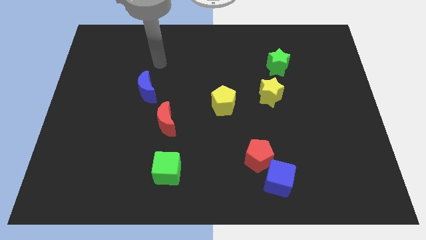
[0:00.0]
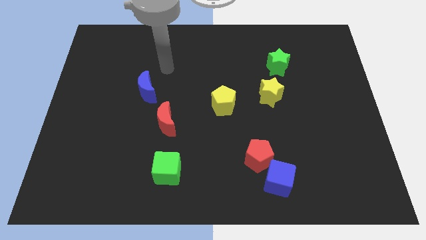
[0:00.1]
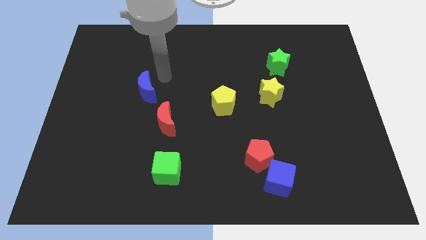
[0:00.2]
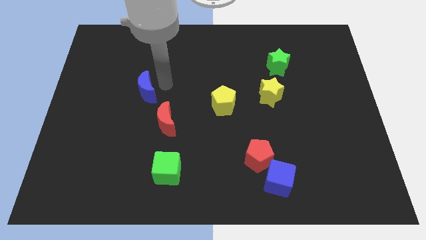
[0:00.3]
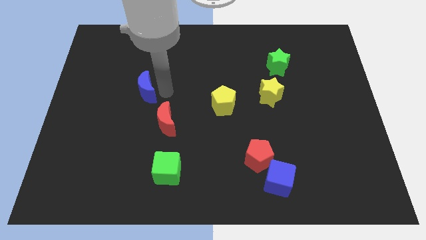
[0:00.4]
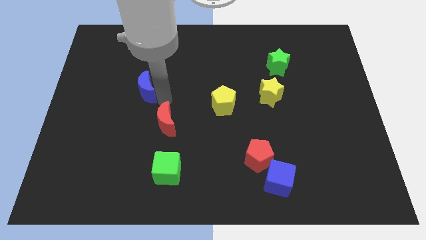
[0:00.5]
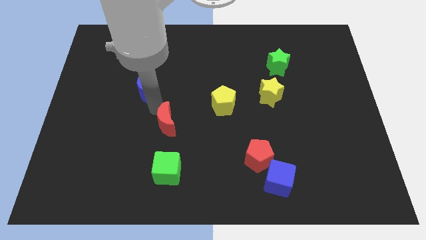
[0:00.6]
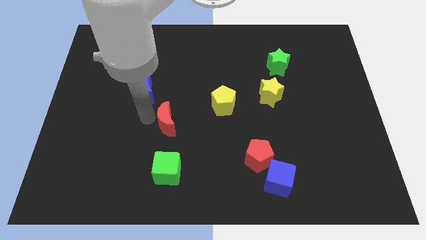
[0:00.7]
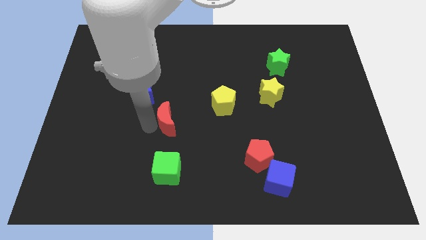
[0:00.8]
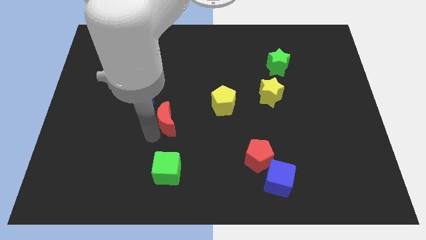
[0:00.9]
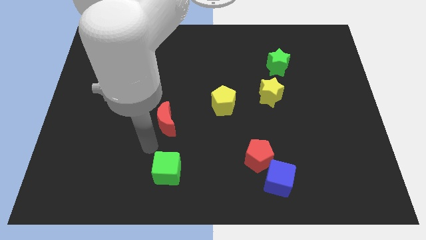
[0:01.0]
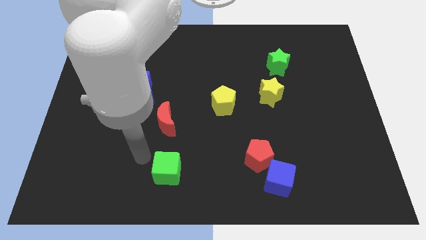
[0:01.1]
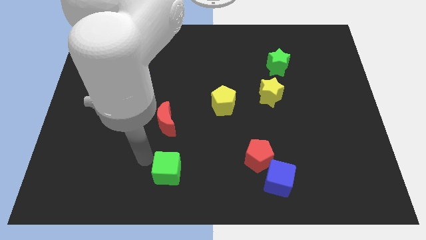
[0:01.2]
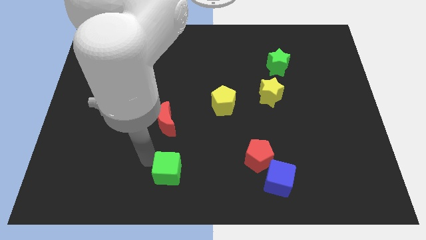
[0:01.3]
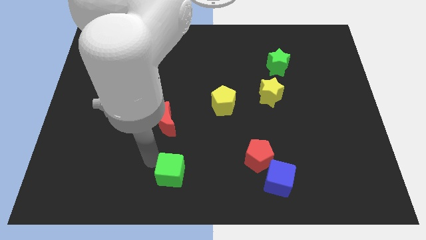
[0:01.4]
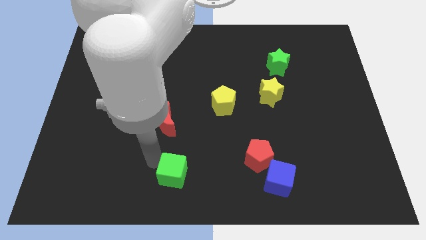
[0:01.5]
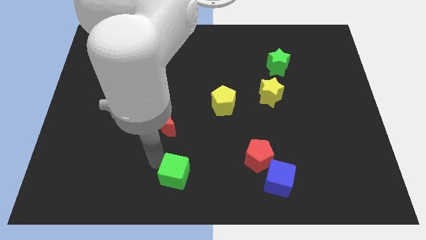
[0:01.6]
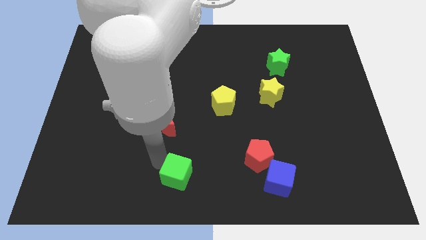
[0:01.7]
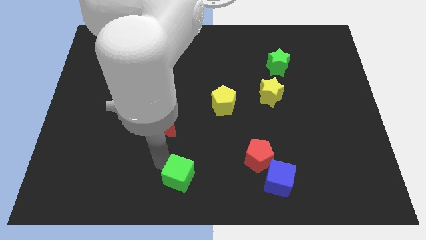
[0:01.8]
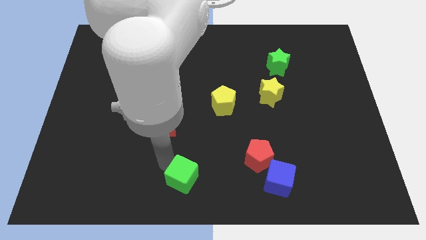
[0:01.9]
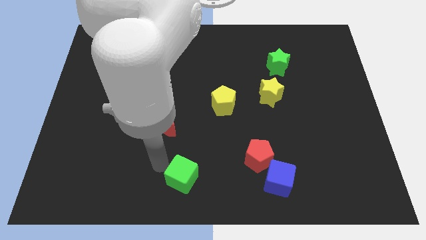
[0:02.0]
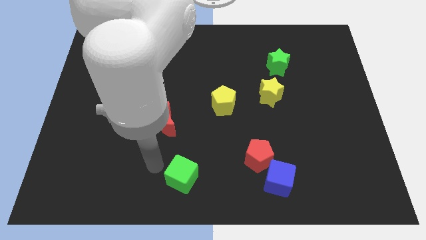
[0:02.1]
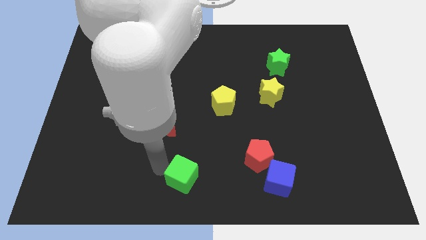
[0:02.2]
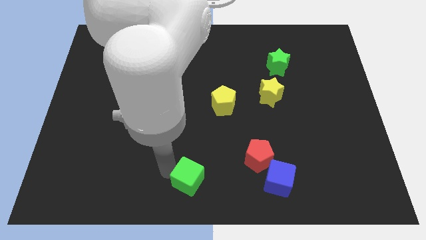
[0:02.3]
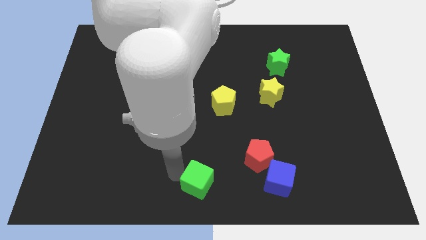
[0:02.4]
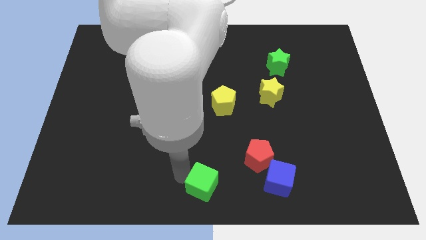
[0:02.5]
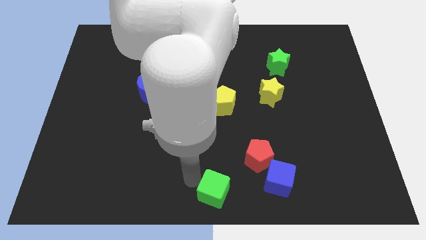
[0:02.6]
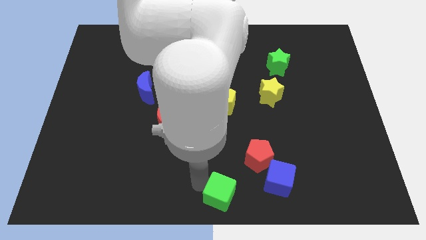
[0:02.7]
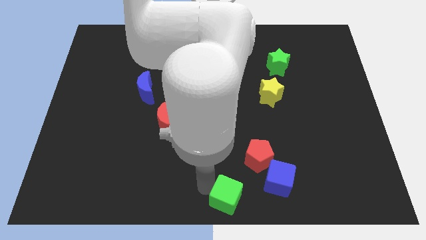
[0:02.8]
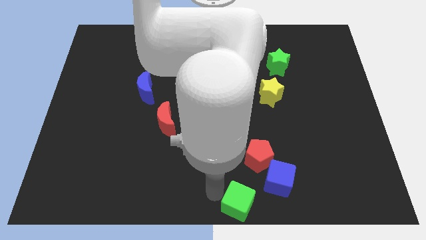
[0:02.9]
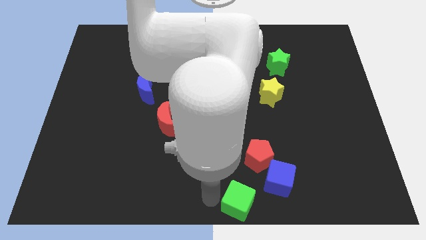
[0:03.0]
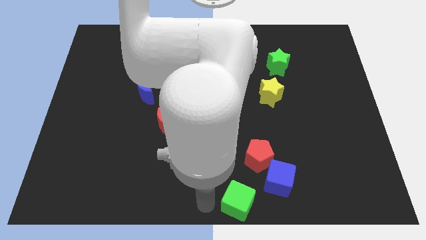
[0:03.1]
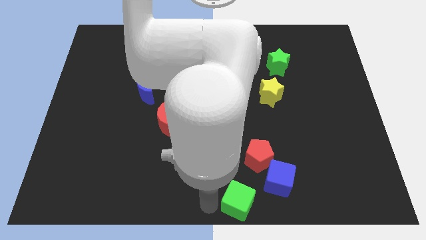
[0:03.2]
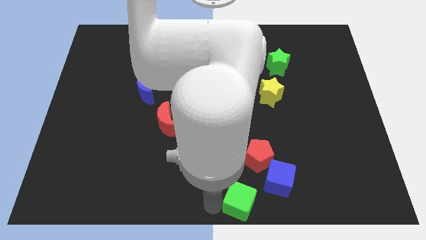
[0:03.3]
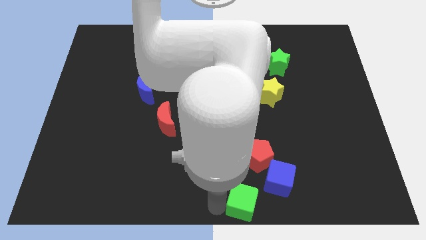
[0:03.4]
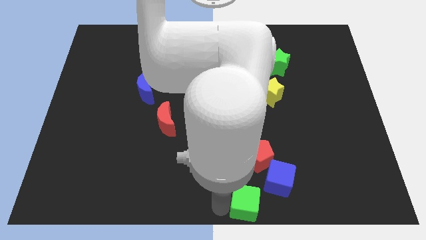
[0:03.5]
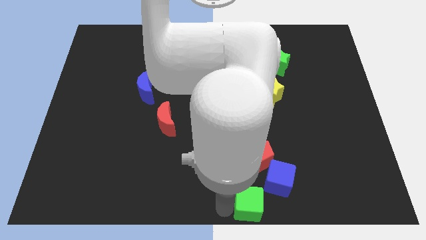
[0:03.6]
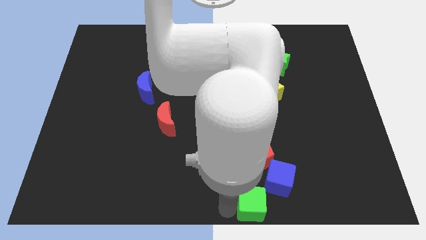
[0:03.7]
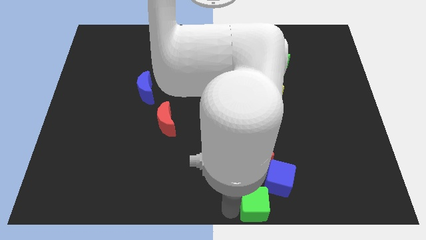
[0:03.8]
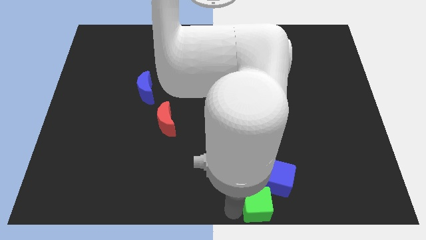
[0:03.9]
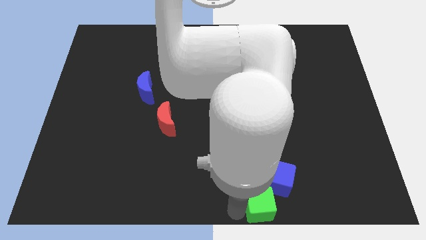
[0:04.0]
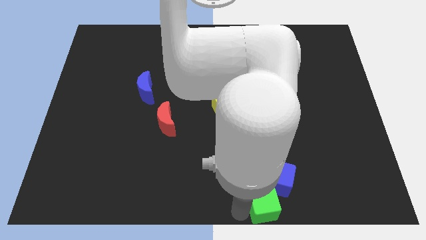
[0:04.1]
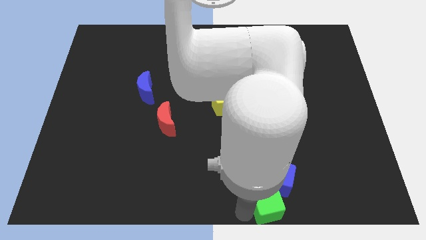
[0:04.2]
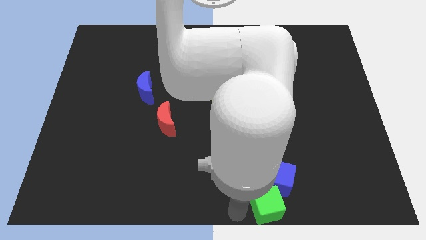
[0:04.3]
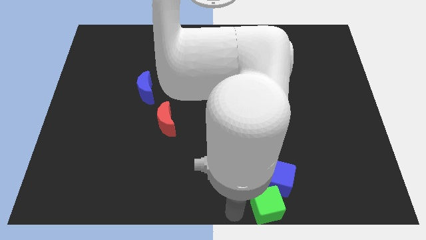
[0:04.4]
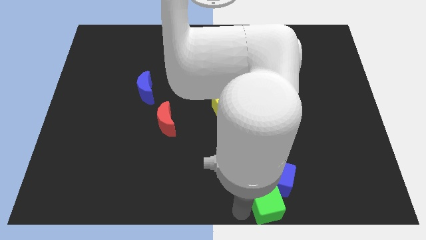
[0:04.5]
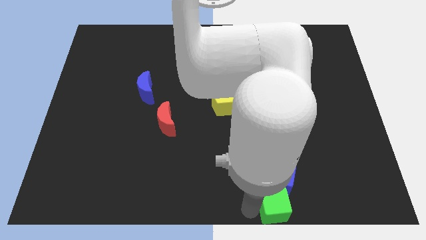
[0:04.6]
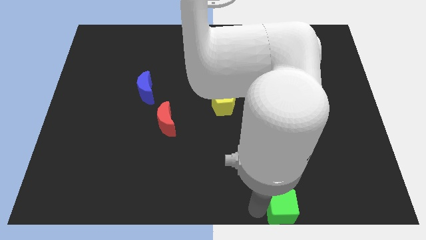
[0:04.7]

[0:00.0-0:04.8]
move the green cube to the right

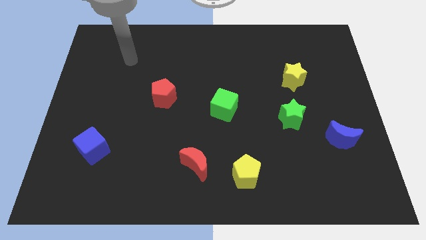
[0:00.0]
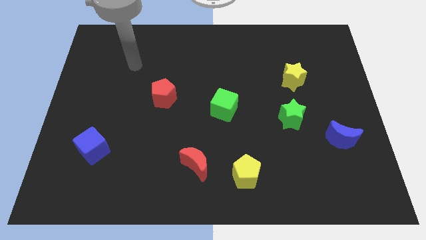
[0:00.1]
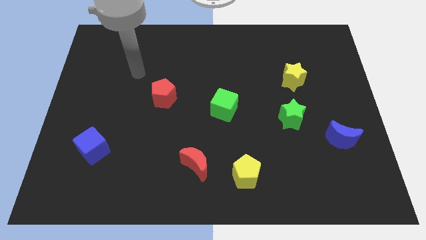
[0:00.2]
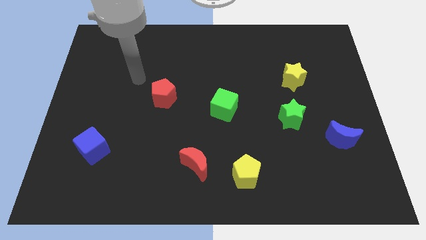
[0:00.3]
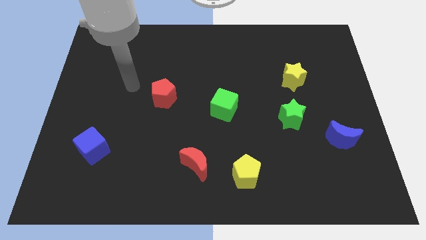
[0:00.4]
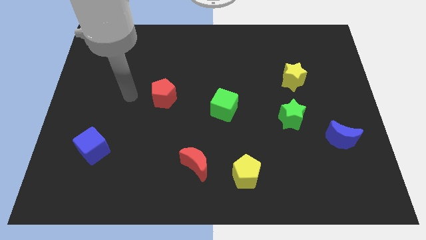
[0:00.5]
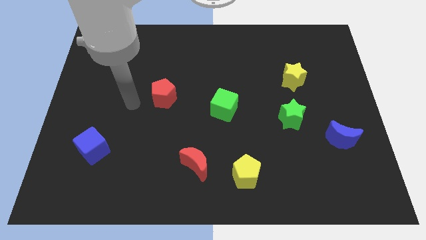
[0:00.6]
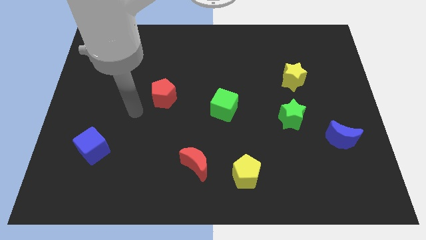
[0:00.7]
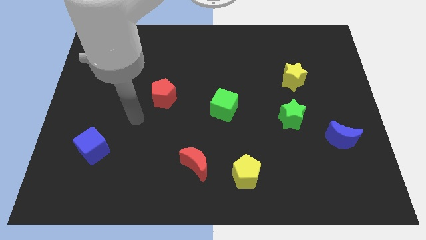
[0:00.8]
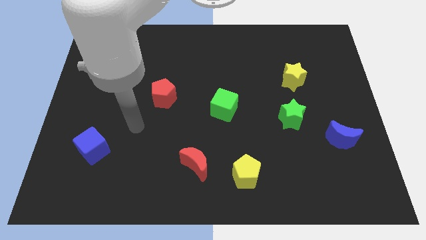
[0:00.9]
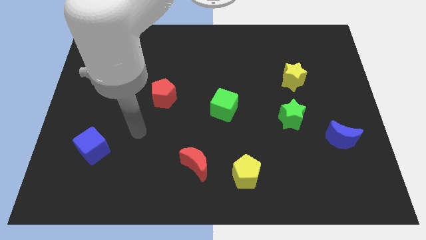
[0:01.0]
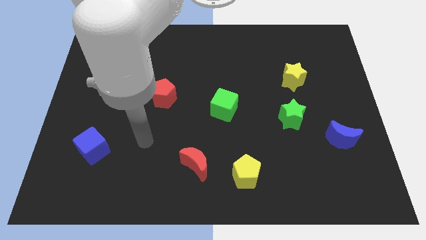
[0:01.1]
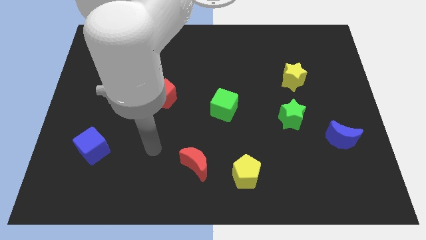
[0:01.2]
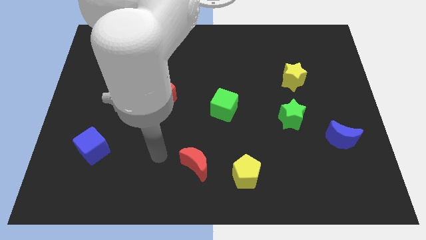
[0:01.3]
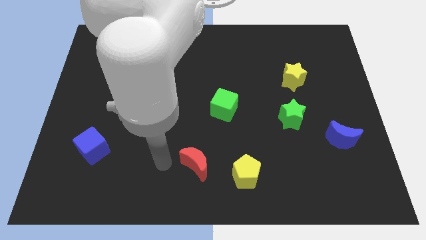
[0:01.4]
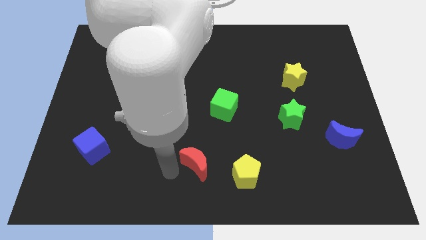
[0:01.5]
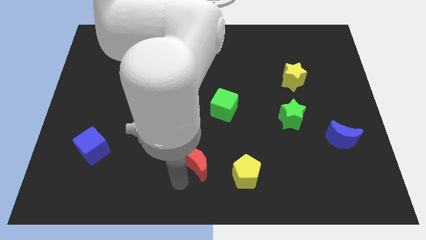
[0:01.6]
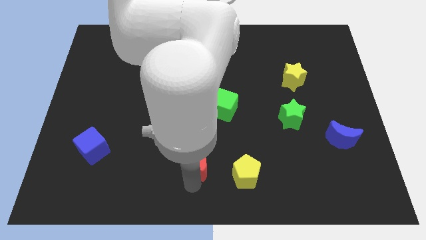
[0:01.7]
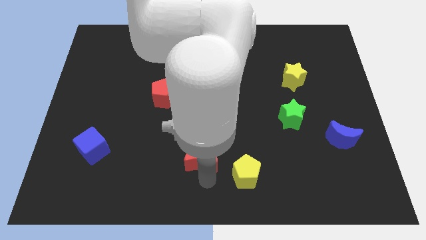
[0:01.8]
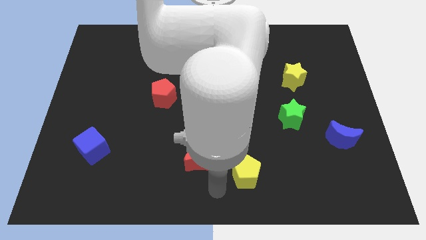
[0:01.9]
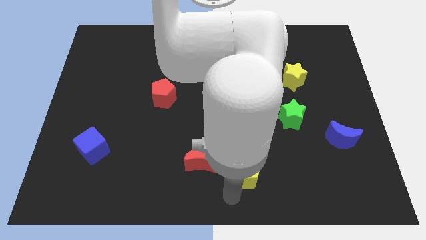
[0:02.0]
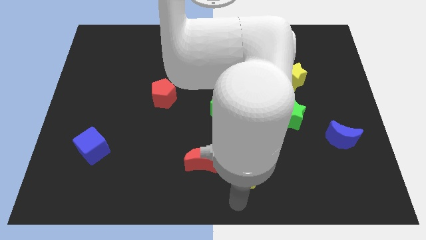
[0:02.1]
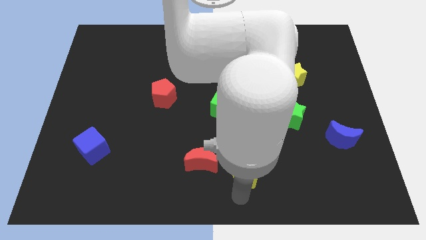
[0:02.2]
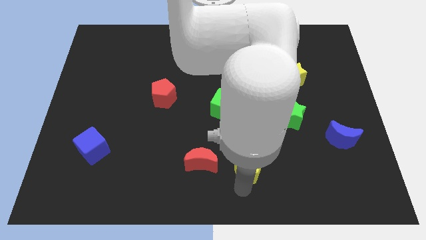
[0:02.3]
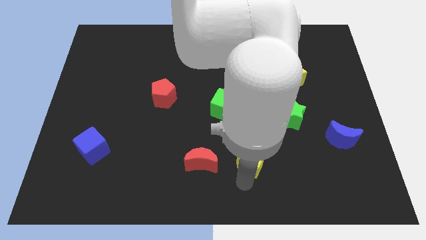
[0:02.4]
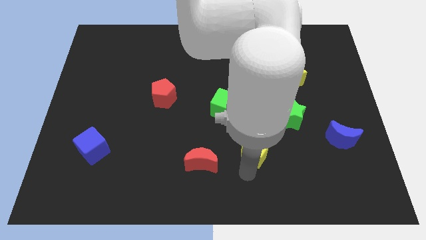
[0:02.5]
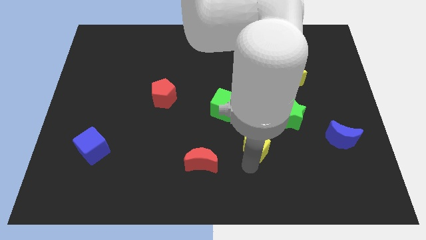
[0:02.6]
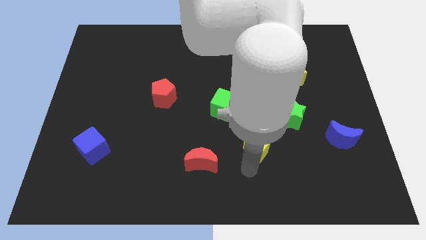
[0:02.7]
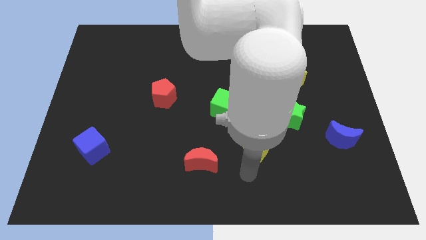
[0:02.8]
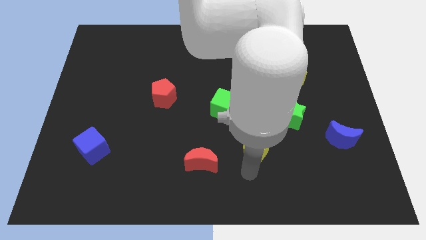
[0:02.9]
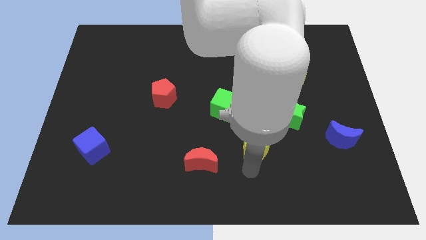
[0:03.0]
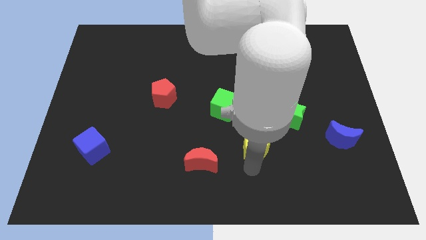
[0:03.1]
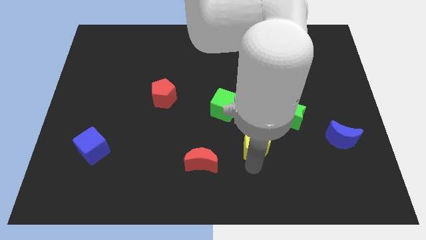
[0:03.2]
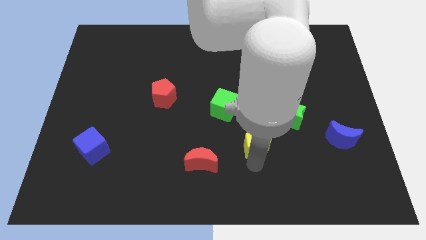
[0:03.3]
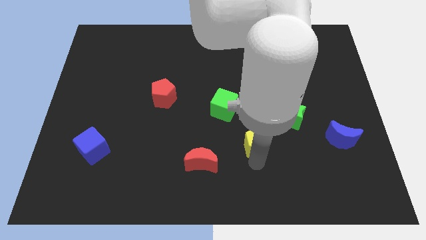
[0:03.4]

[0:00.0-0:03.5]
slide the yellow pentagon a bit upwards
